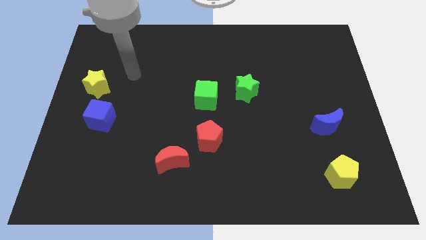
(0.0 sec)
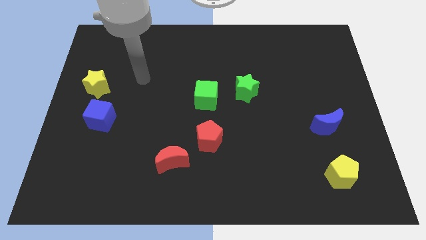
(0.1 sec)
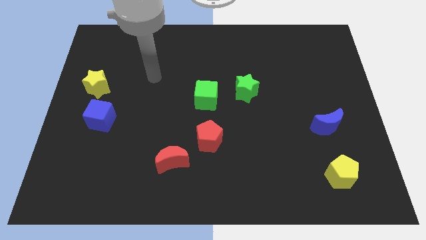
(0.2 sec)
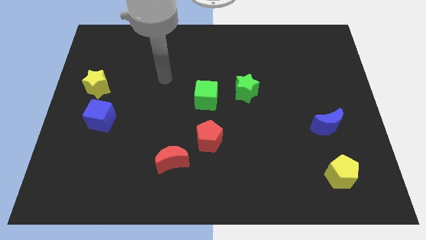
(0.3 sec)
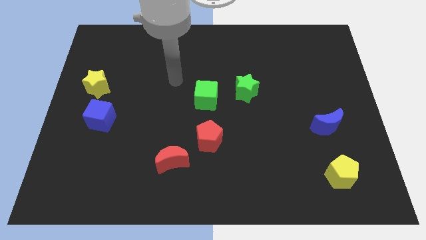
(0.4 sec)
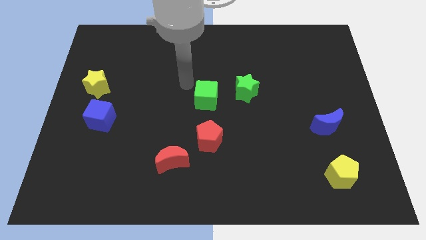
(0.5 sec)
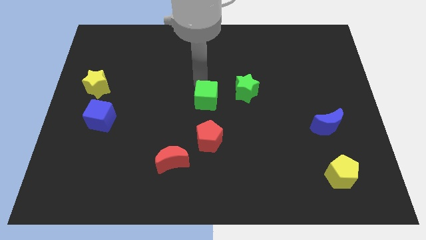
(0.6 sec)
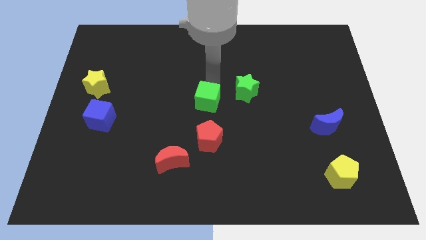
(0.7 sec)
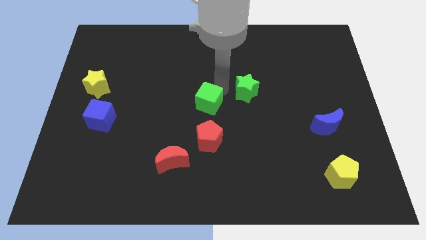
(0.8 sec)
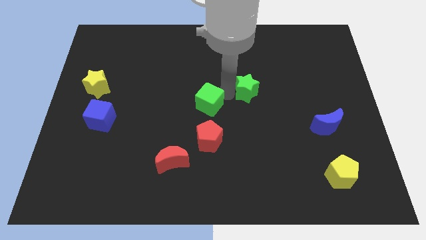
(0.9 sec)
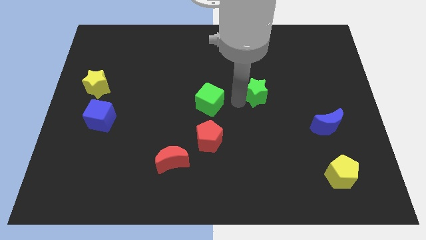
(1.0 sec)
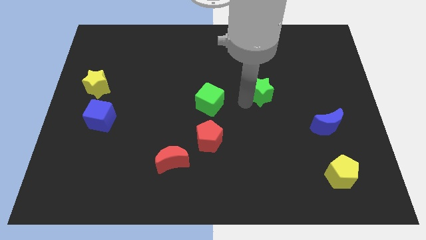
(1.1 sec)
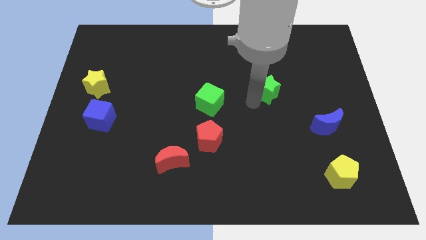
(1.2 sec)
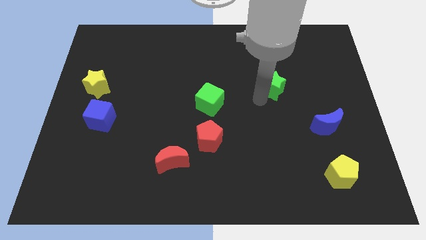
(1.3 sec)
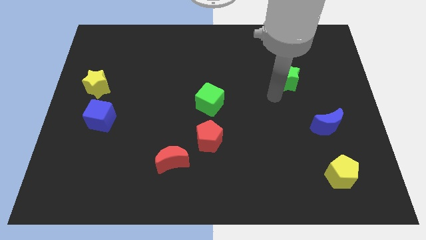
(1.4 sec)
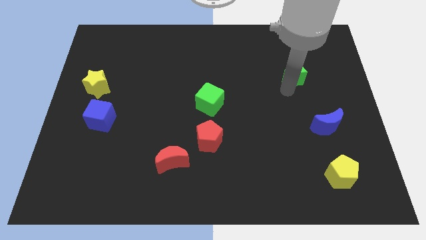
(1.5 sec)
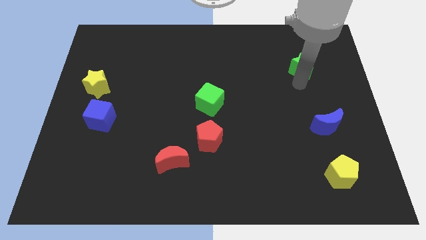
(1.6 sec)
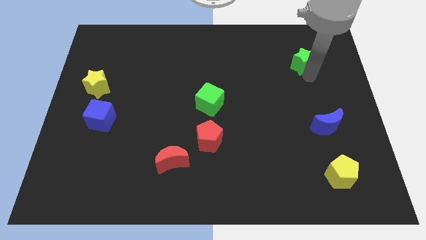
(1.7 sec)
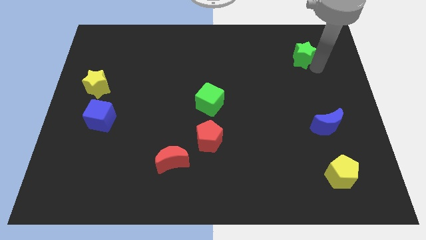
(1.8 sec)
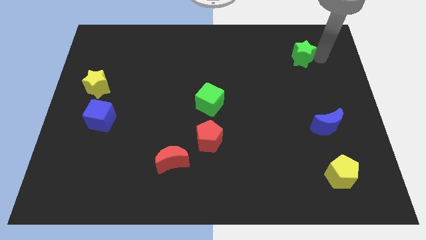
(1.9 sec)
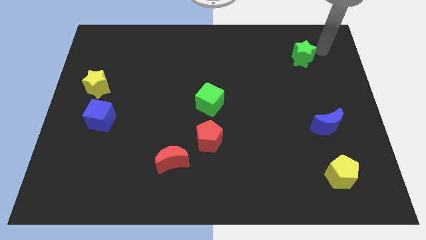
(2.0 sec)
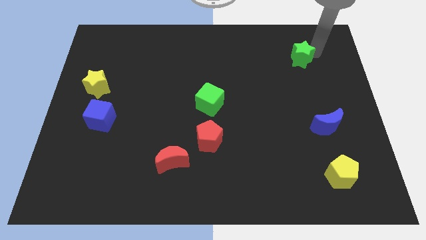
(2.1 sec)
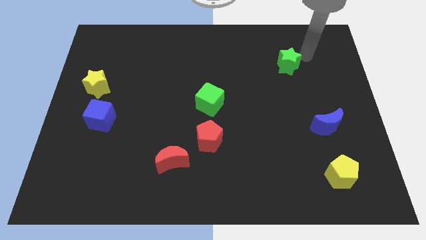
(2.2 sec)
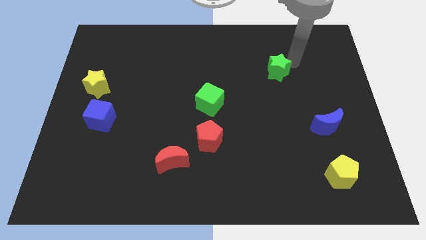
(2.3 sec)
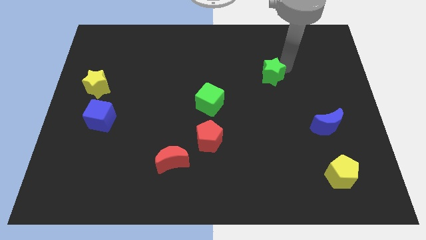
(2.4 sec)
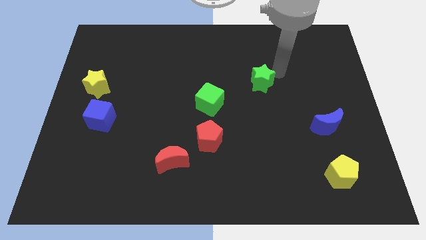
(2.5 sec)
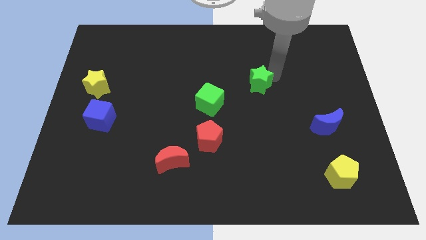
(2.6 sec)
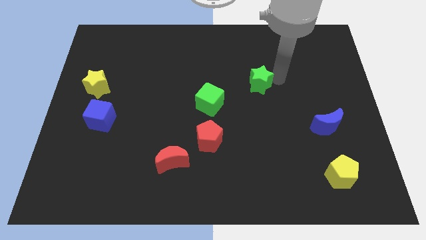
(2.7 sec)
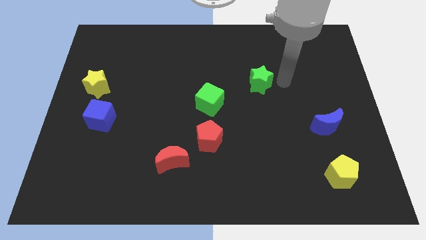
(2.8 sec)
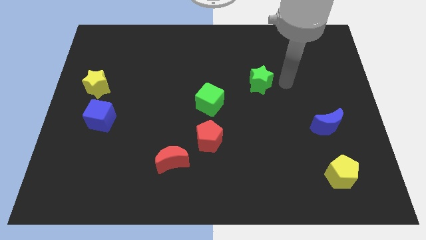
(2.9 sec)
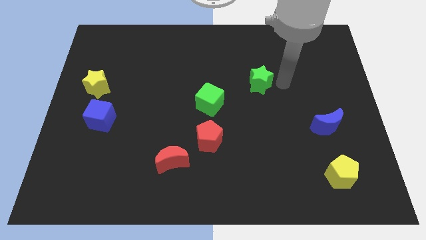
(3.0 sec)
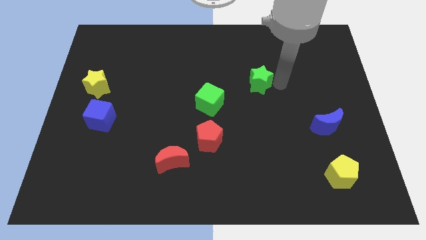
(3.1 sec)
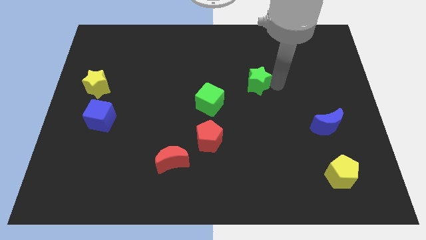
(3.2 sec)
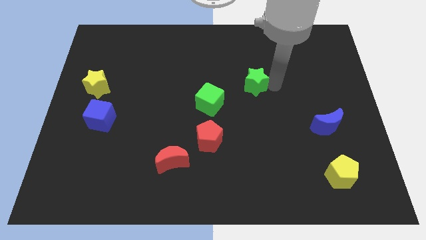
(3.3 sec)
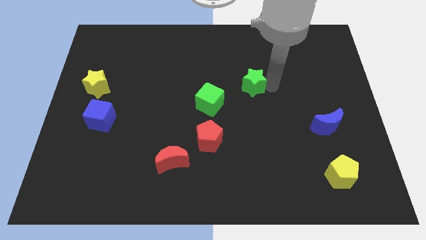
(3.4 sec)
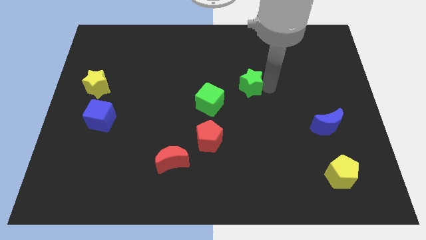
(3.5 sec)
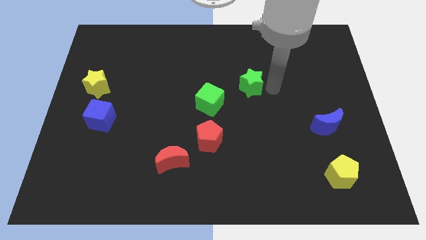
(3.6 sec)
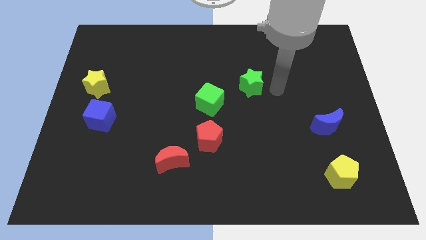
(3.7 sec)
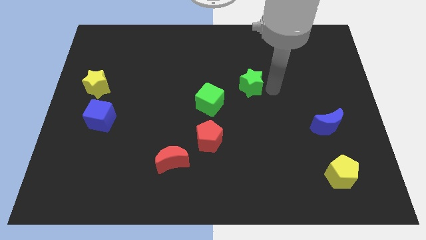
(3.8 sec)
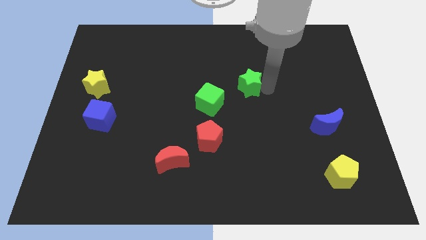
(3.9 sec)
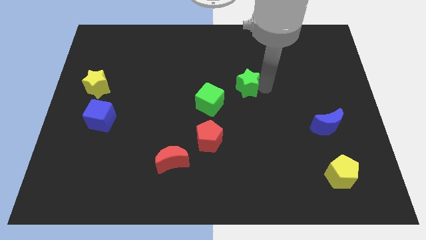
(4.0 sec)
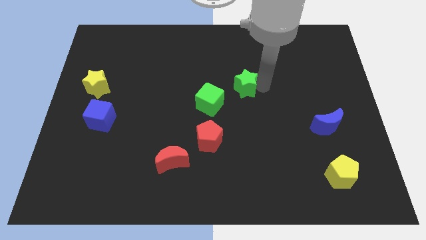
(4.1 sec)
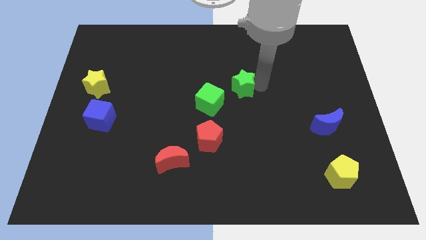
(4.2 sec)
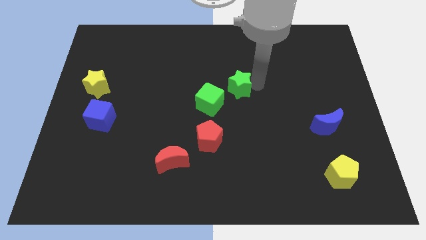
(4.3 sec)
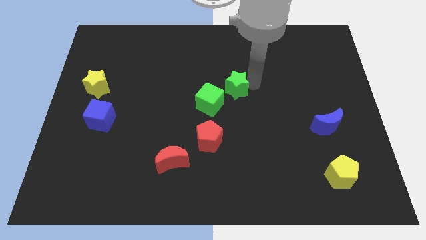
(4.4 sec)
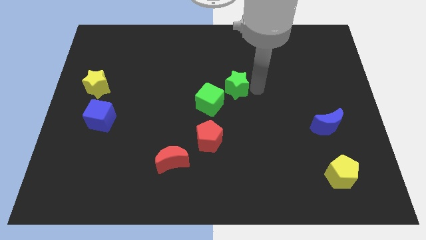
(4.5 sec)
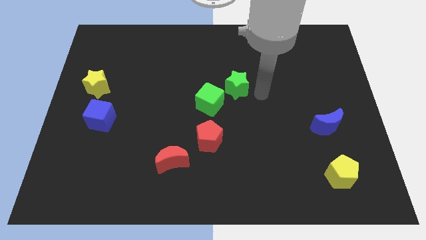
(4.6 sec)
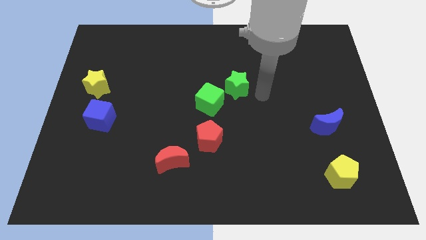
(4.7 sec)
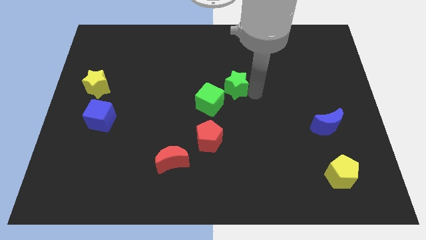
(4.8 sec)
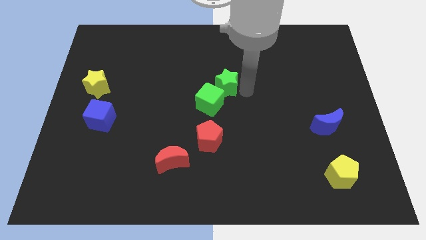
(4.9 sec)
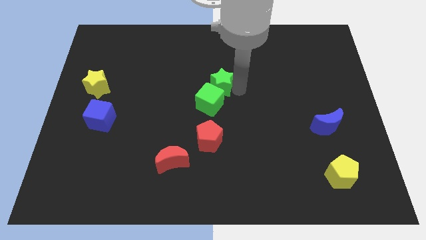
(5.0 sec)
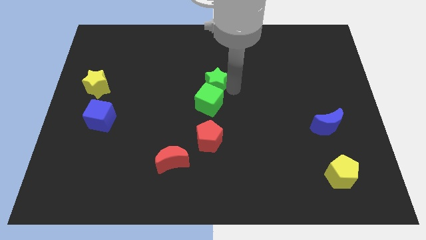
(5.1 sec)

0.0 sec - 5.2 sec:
slightly slide the green star left

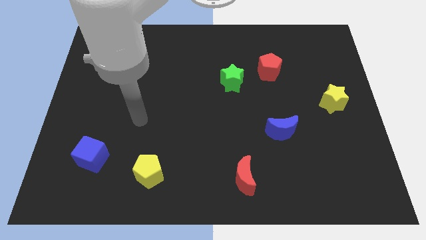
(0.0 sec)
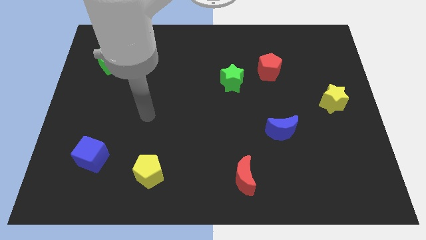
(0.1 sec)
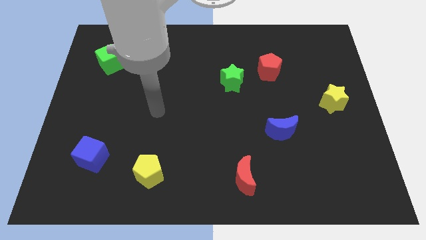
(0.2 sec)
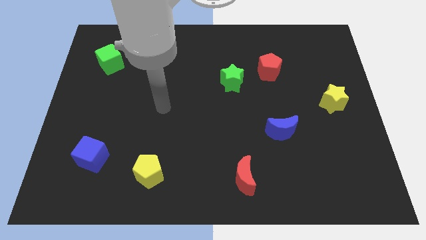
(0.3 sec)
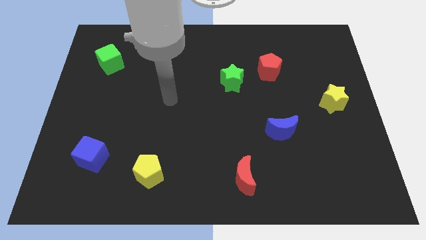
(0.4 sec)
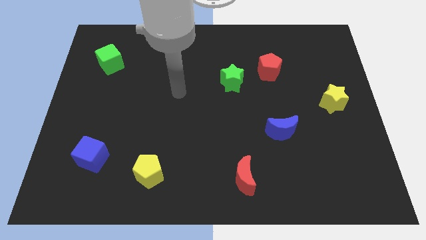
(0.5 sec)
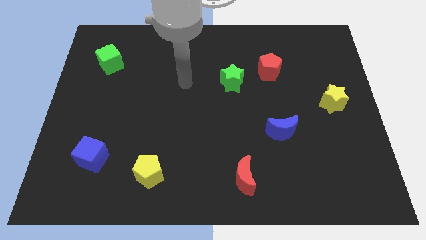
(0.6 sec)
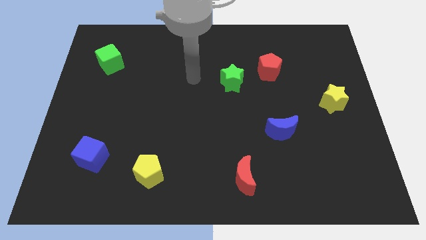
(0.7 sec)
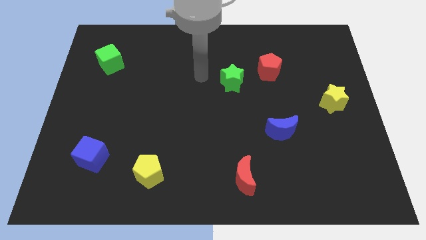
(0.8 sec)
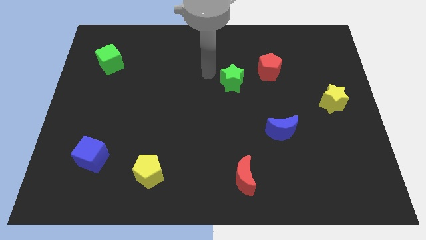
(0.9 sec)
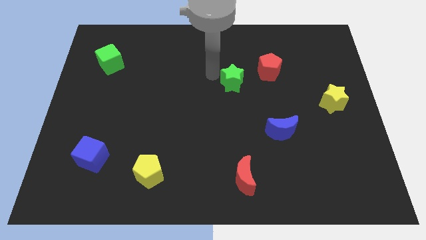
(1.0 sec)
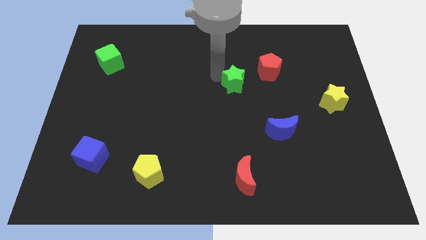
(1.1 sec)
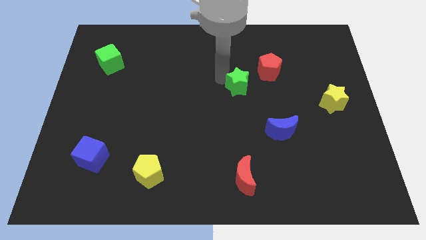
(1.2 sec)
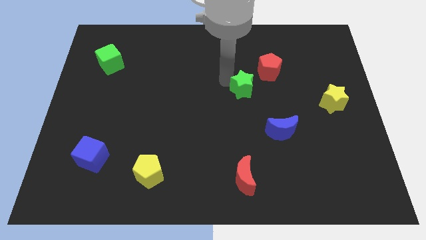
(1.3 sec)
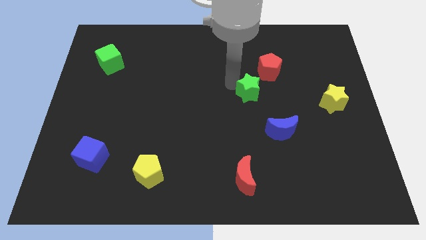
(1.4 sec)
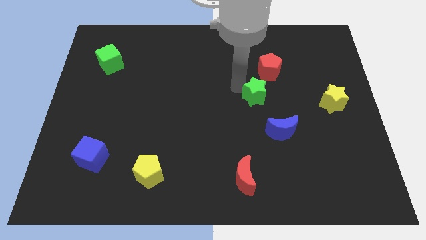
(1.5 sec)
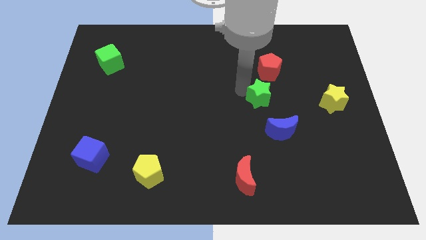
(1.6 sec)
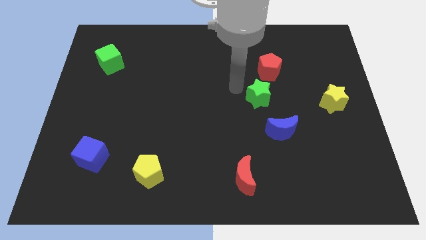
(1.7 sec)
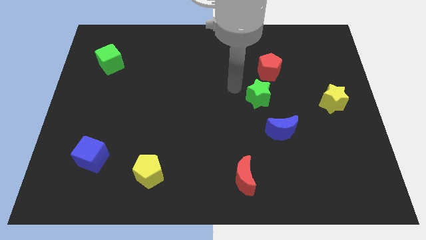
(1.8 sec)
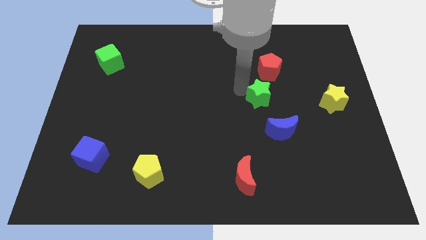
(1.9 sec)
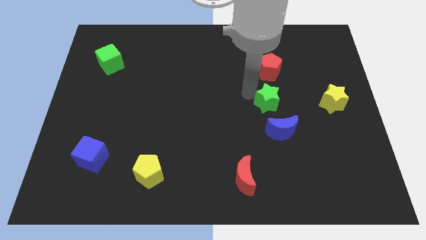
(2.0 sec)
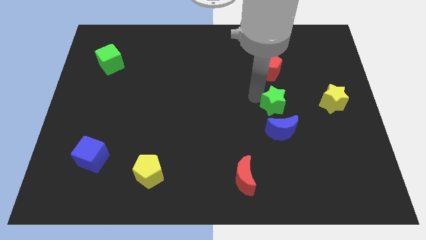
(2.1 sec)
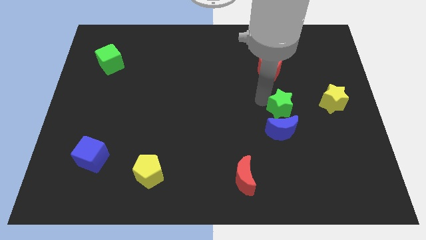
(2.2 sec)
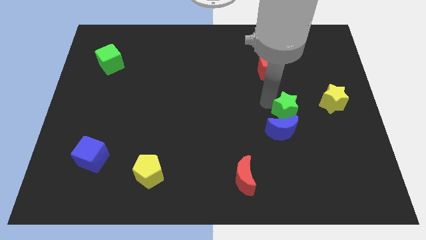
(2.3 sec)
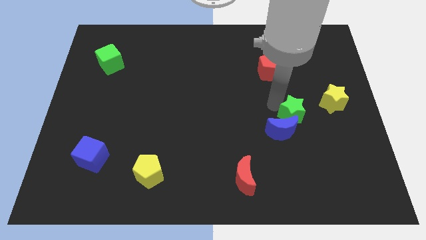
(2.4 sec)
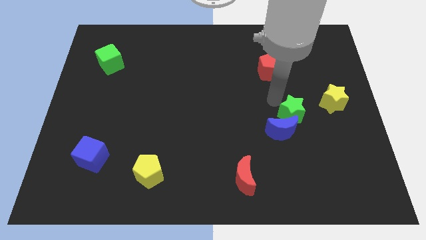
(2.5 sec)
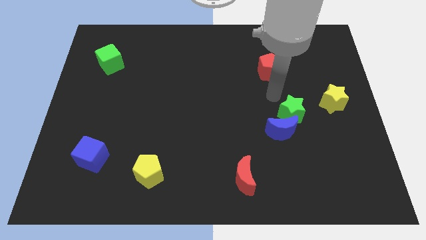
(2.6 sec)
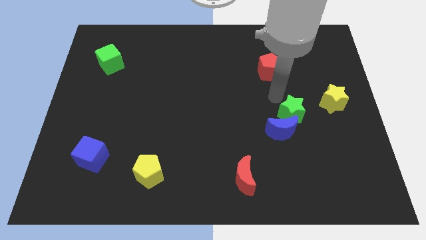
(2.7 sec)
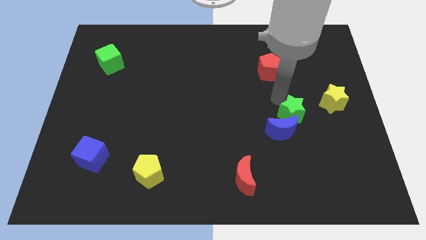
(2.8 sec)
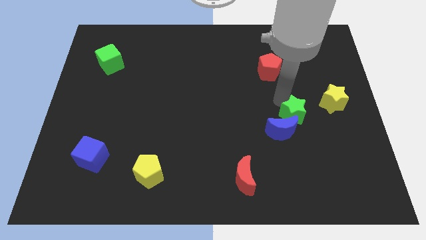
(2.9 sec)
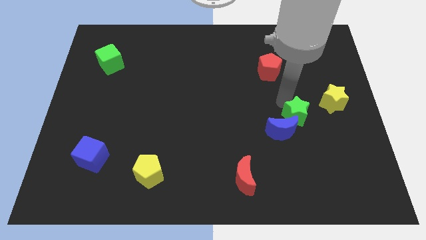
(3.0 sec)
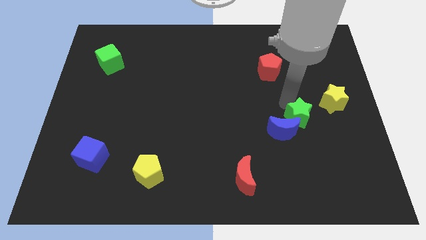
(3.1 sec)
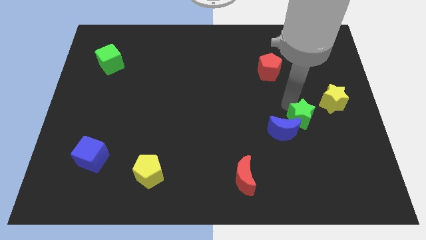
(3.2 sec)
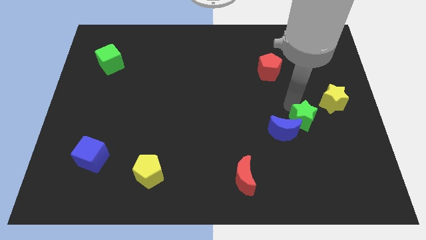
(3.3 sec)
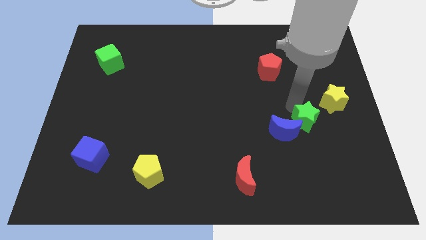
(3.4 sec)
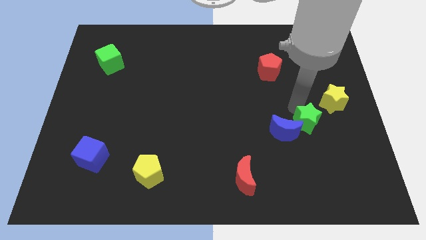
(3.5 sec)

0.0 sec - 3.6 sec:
push the green star down and right
